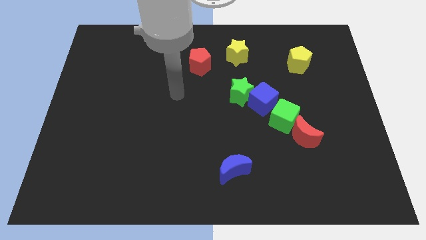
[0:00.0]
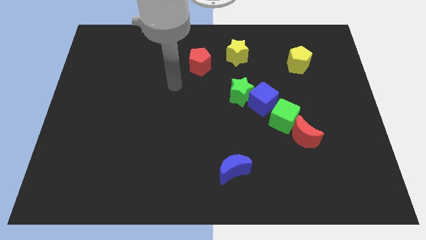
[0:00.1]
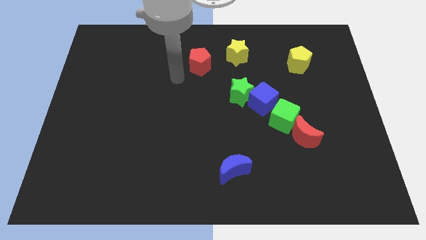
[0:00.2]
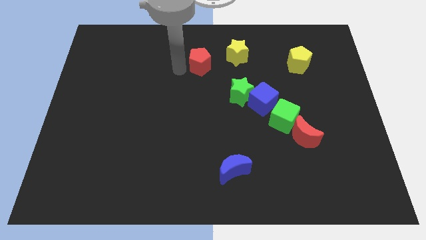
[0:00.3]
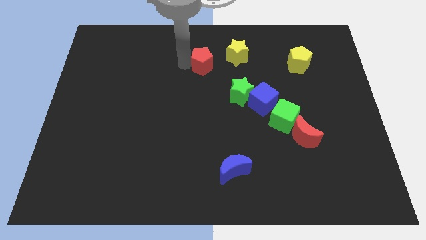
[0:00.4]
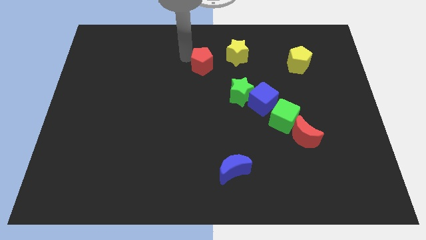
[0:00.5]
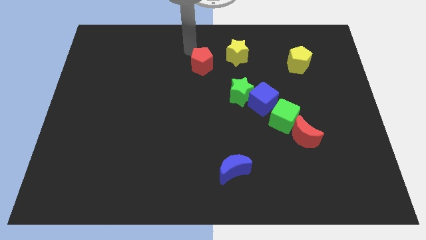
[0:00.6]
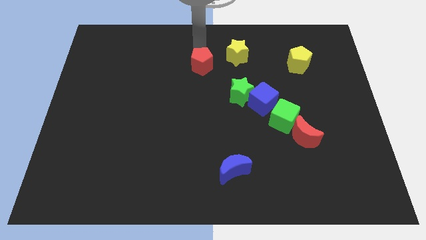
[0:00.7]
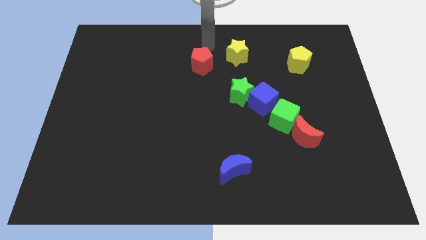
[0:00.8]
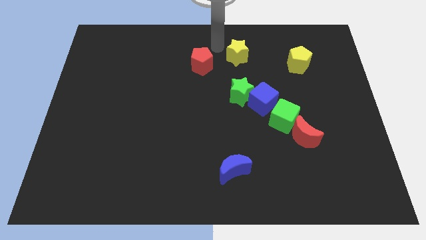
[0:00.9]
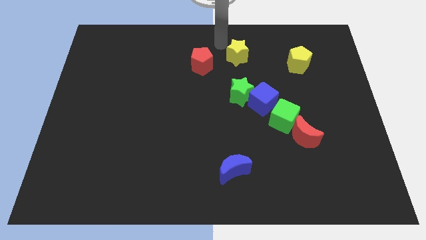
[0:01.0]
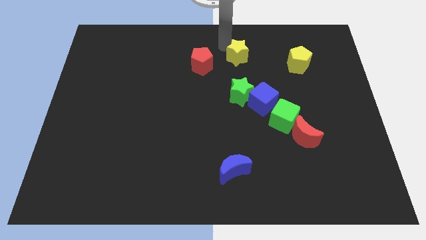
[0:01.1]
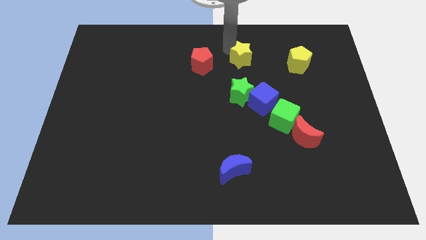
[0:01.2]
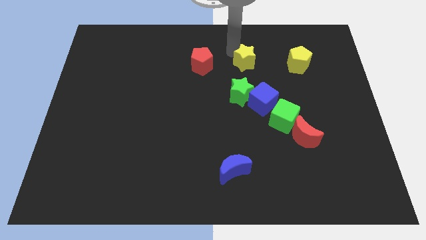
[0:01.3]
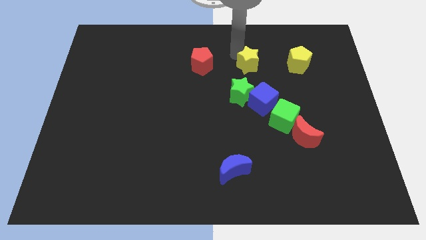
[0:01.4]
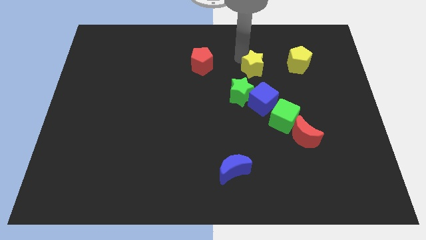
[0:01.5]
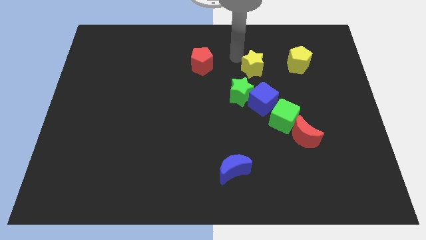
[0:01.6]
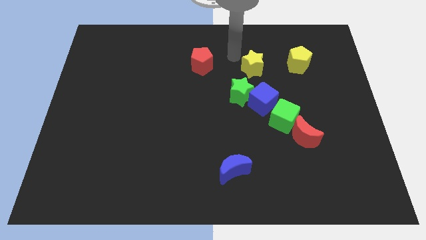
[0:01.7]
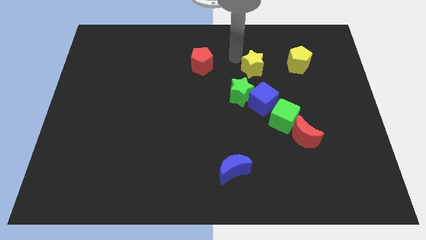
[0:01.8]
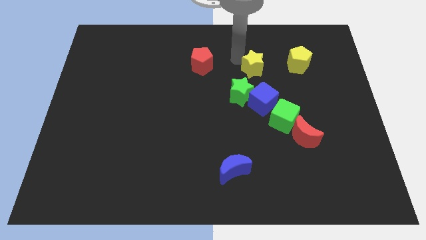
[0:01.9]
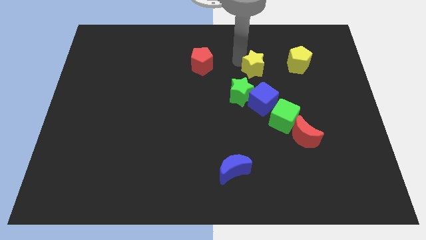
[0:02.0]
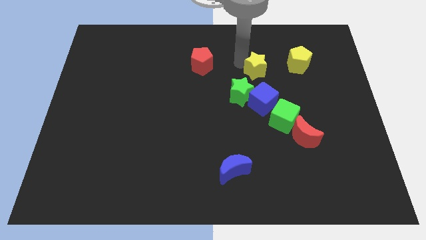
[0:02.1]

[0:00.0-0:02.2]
slightly slide the yellow star down and right

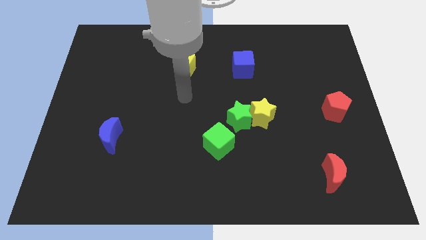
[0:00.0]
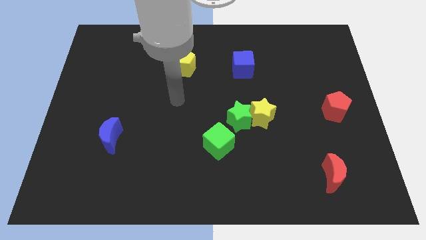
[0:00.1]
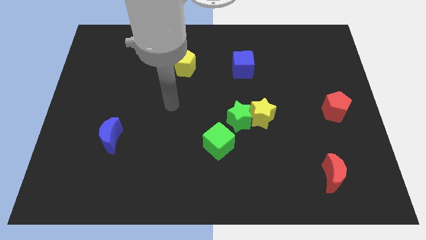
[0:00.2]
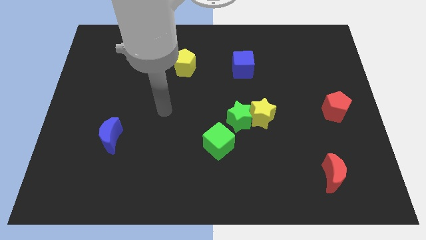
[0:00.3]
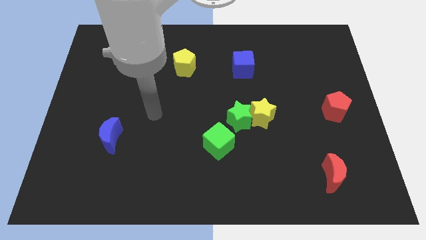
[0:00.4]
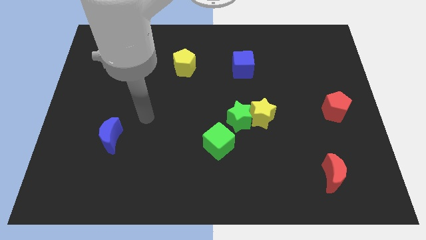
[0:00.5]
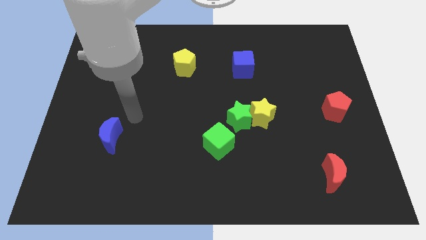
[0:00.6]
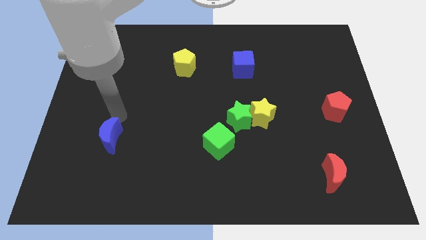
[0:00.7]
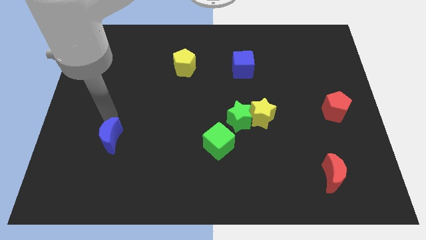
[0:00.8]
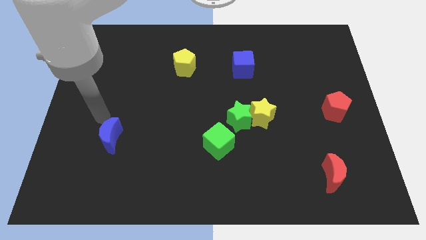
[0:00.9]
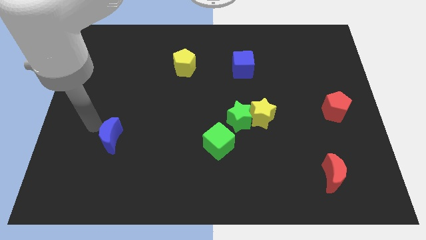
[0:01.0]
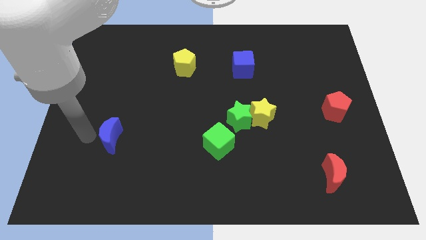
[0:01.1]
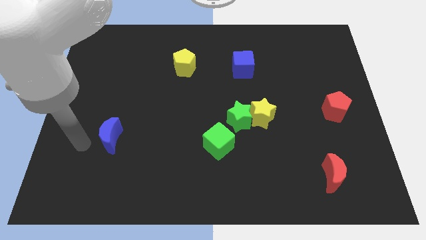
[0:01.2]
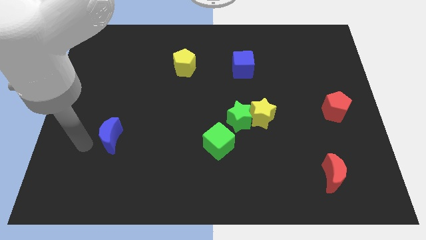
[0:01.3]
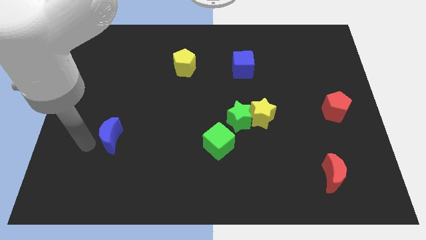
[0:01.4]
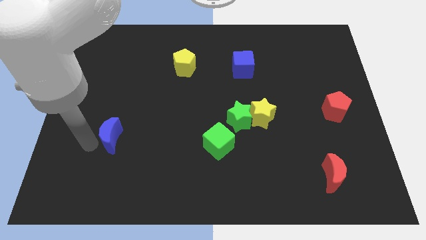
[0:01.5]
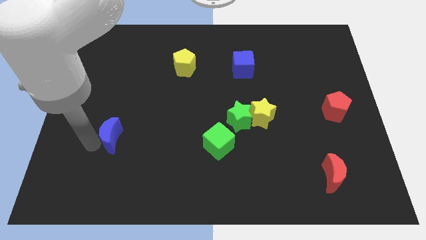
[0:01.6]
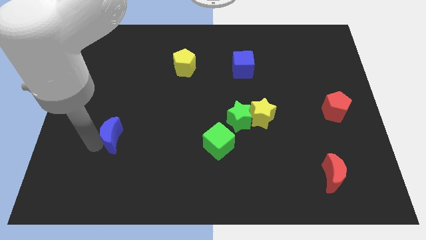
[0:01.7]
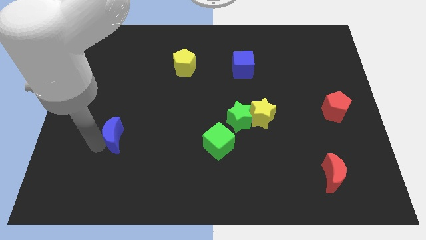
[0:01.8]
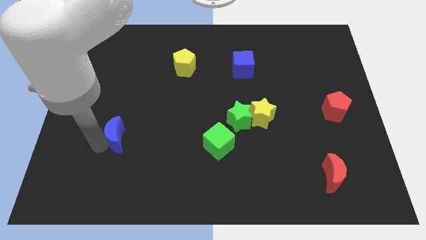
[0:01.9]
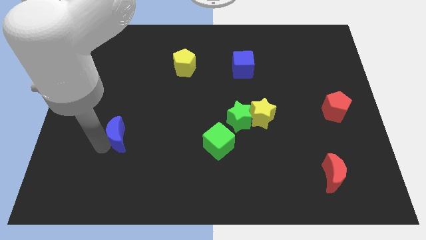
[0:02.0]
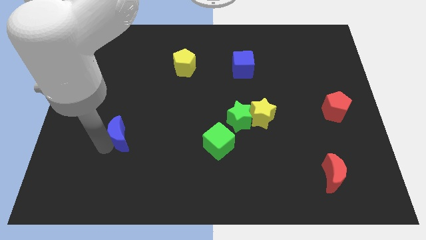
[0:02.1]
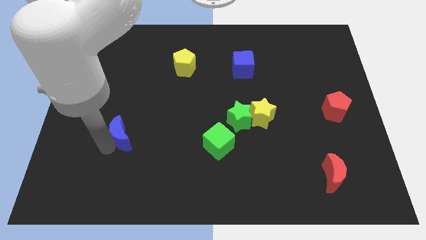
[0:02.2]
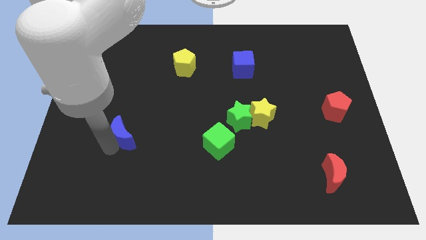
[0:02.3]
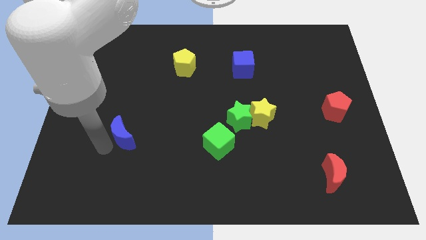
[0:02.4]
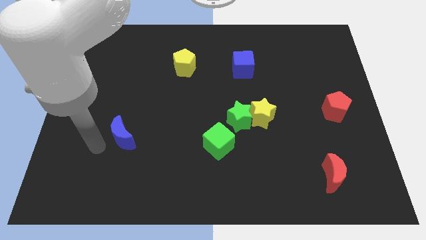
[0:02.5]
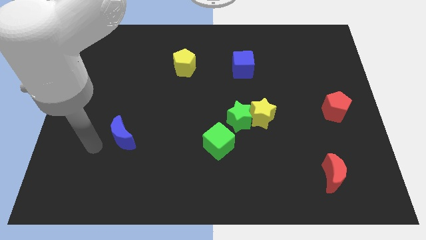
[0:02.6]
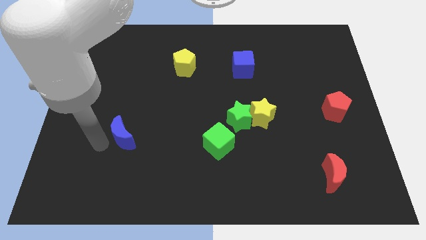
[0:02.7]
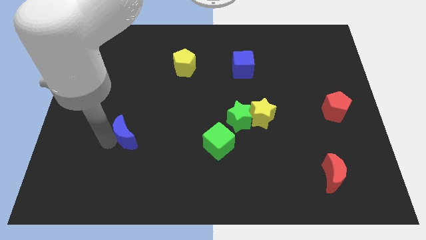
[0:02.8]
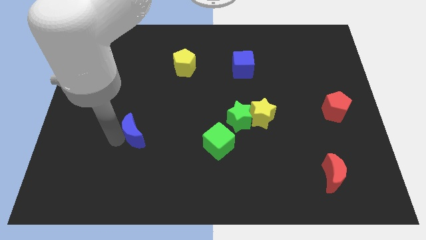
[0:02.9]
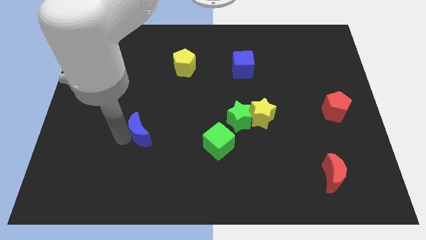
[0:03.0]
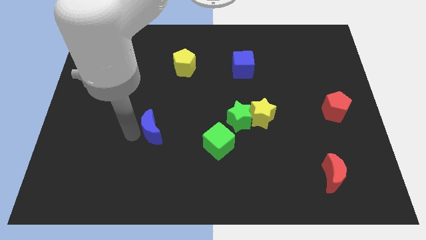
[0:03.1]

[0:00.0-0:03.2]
slide the blue moon to the right somewhat

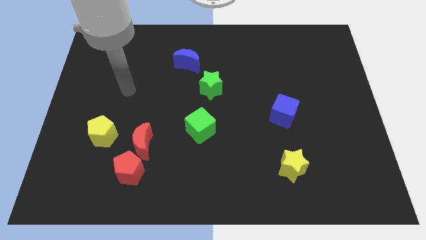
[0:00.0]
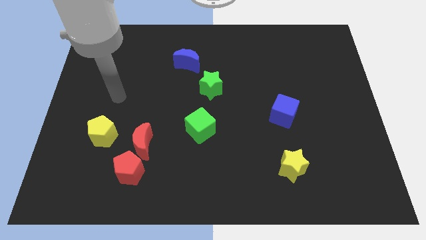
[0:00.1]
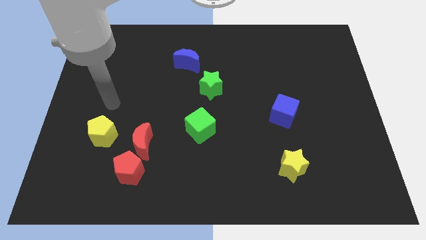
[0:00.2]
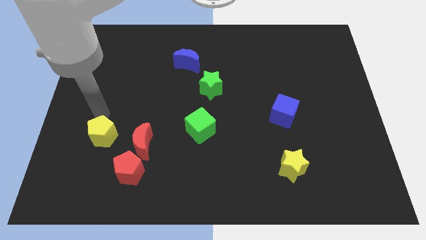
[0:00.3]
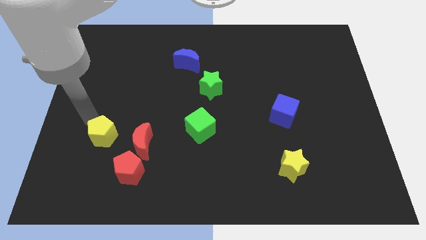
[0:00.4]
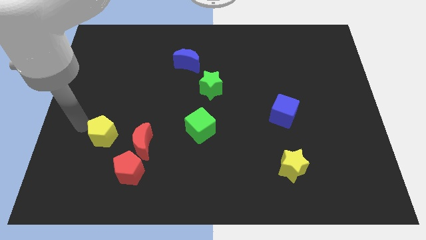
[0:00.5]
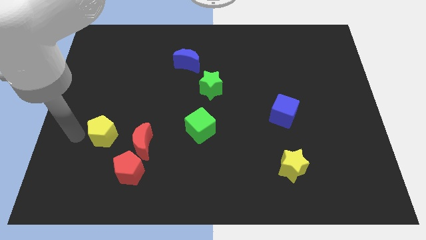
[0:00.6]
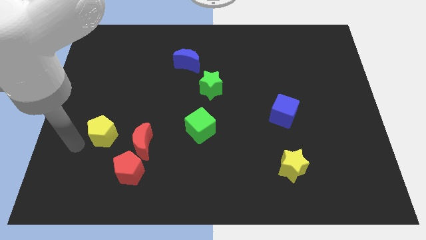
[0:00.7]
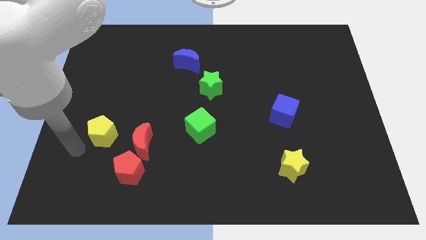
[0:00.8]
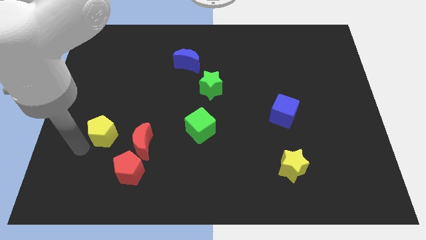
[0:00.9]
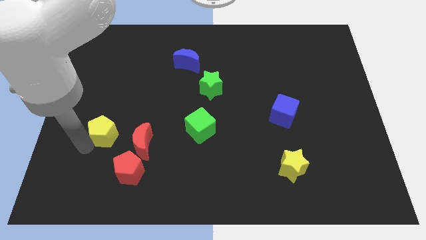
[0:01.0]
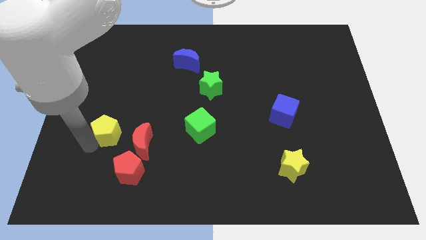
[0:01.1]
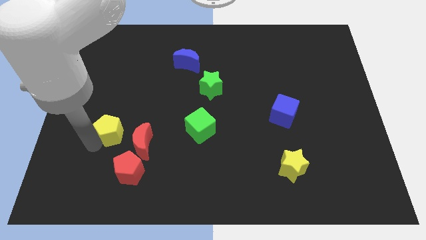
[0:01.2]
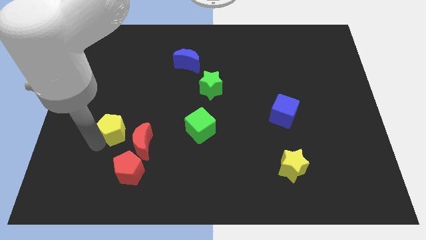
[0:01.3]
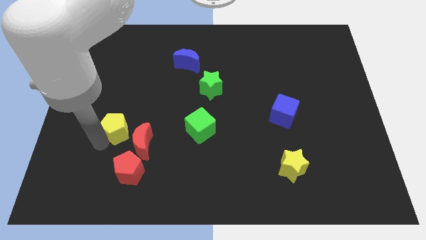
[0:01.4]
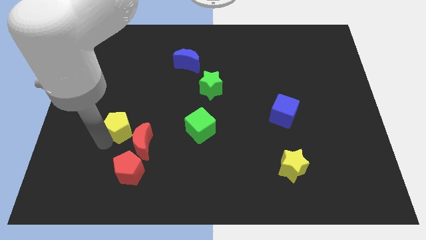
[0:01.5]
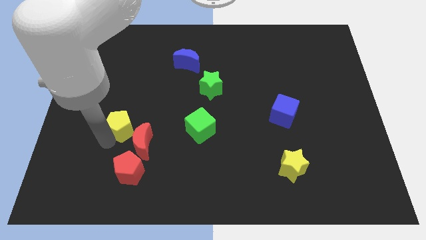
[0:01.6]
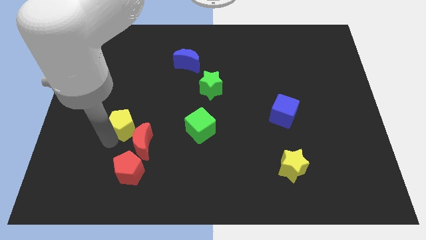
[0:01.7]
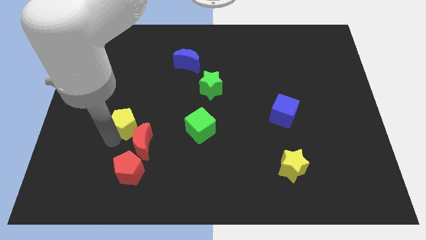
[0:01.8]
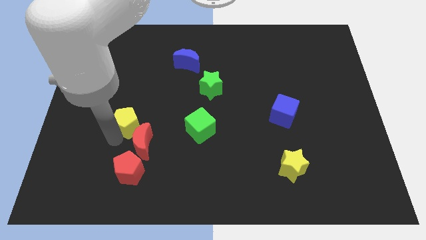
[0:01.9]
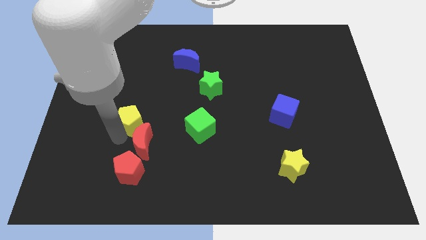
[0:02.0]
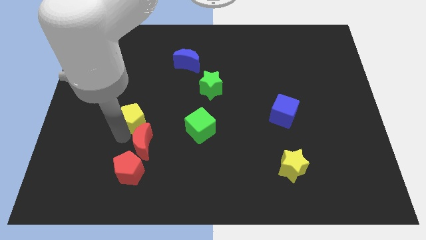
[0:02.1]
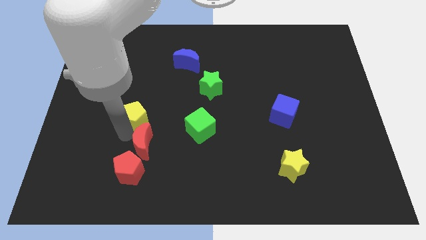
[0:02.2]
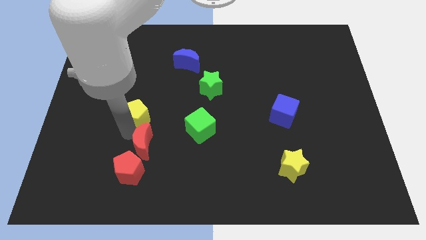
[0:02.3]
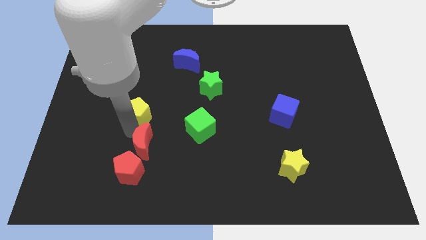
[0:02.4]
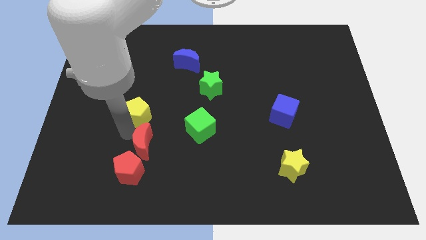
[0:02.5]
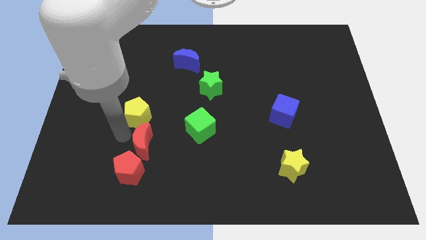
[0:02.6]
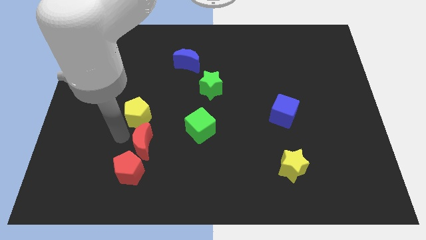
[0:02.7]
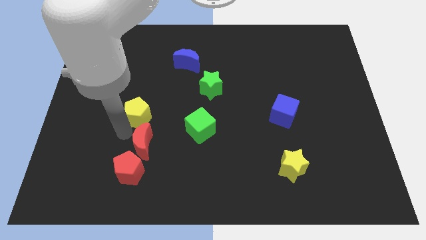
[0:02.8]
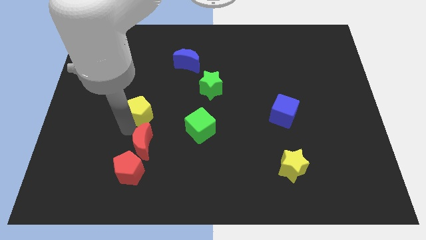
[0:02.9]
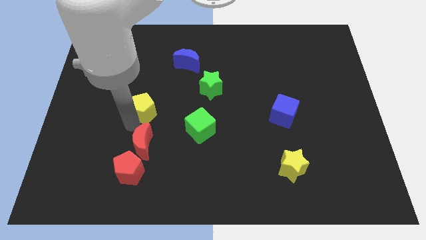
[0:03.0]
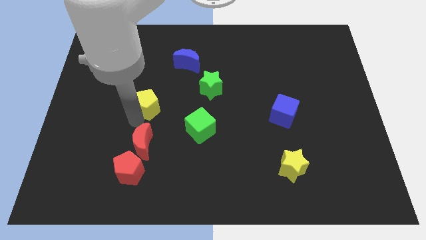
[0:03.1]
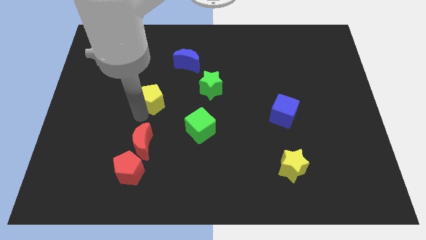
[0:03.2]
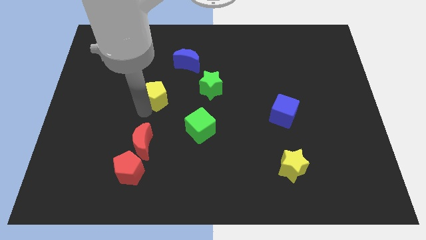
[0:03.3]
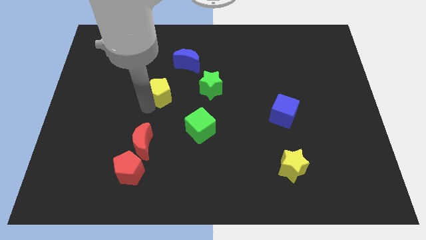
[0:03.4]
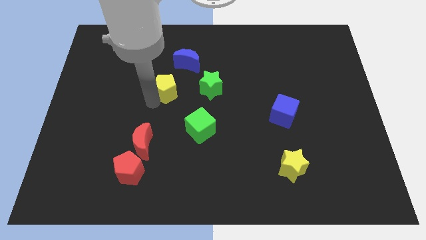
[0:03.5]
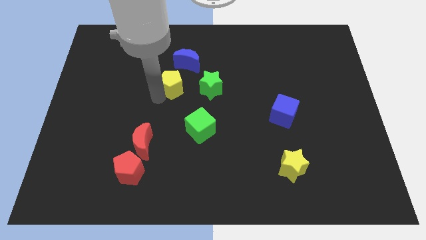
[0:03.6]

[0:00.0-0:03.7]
push the yellow pentagon upwards and then to the right
